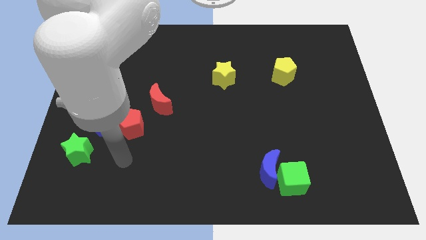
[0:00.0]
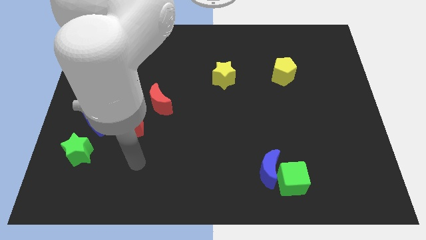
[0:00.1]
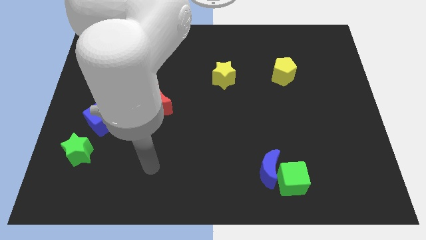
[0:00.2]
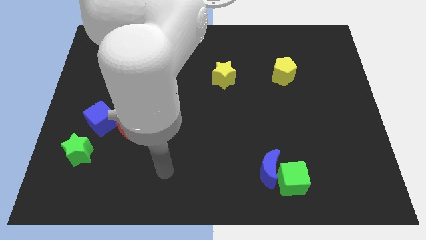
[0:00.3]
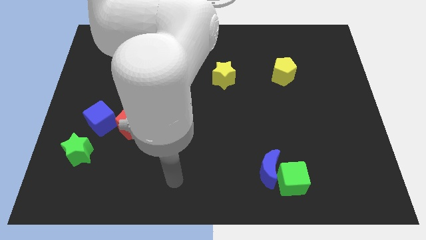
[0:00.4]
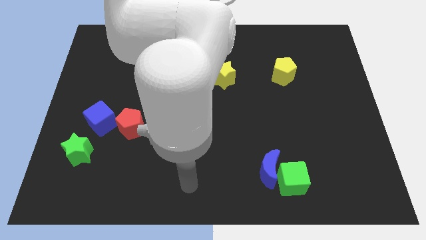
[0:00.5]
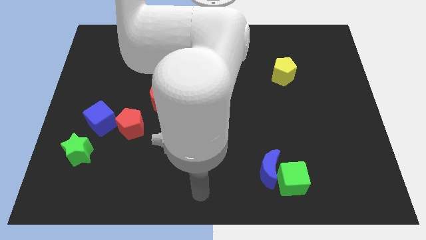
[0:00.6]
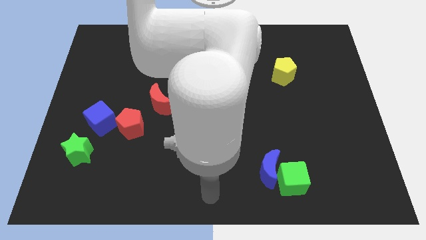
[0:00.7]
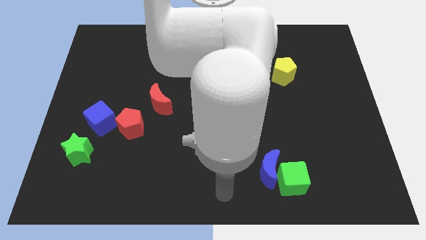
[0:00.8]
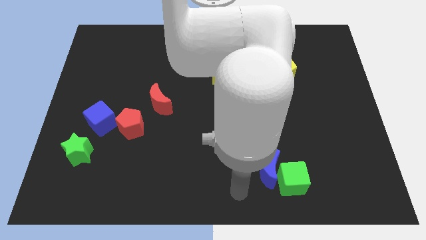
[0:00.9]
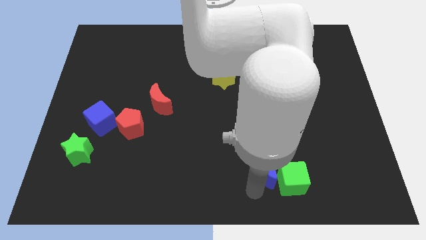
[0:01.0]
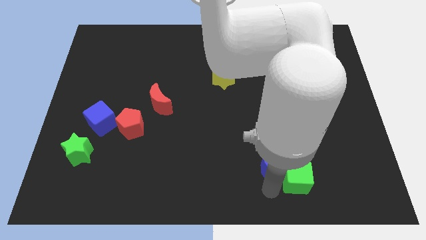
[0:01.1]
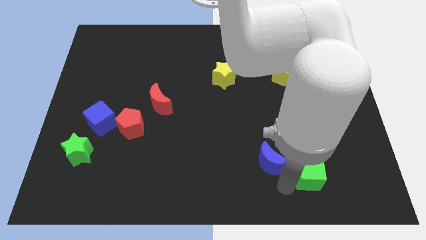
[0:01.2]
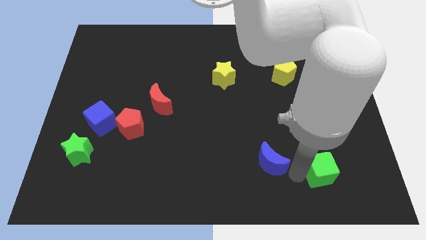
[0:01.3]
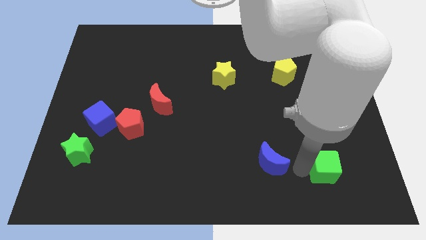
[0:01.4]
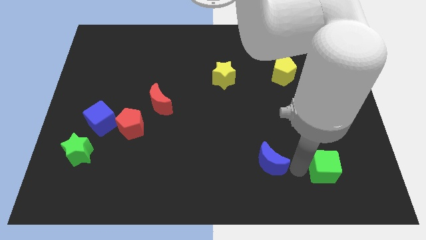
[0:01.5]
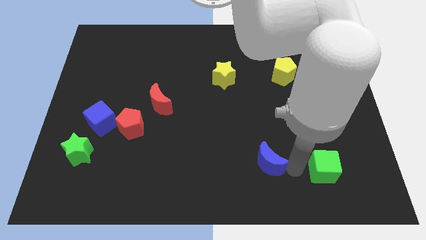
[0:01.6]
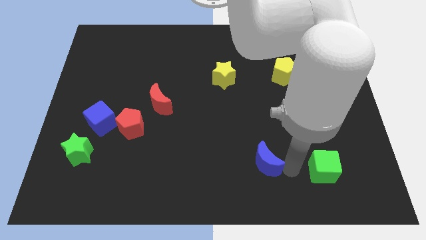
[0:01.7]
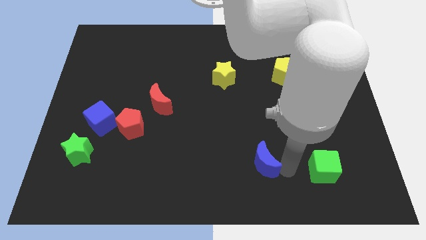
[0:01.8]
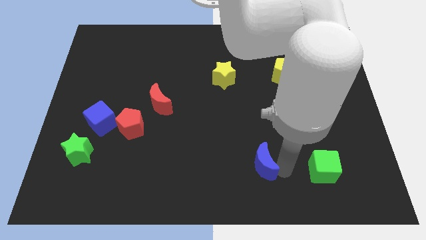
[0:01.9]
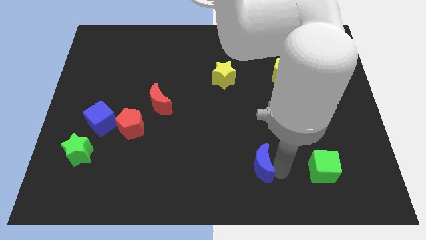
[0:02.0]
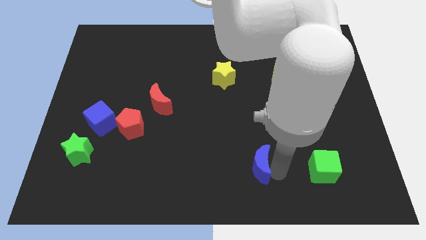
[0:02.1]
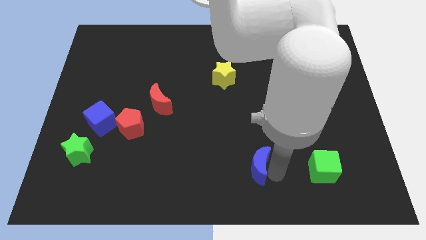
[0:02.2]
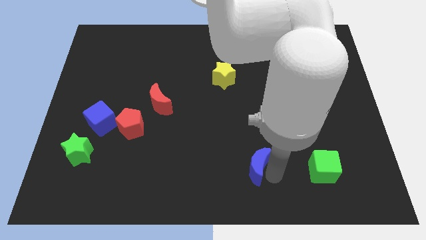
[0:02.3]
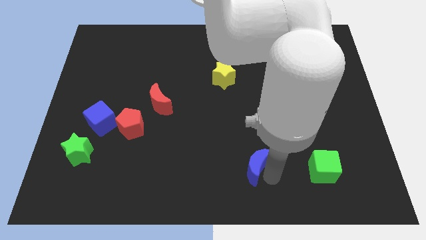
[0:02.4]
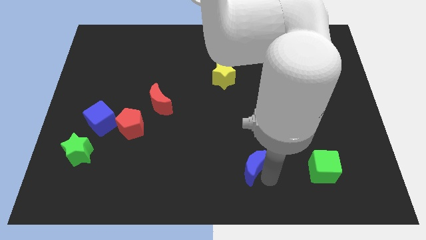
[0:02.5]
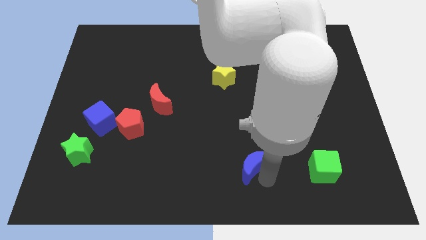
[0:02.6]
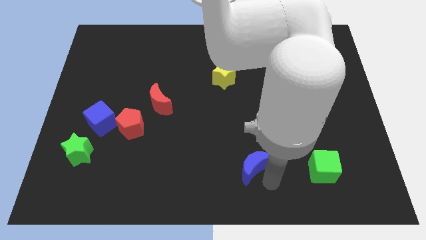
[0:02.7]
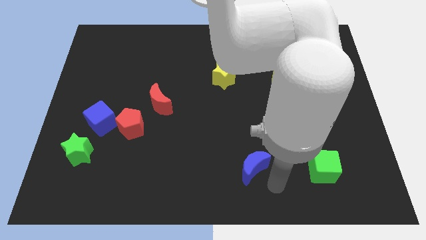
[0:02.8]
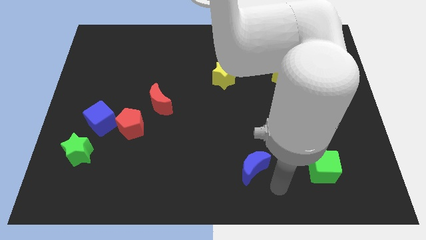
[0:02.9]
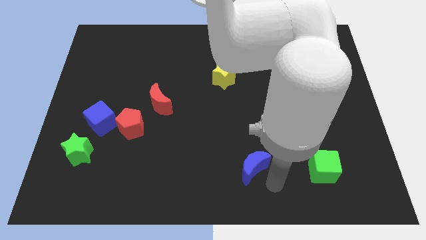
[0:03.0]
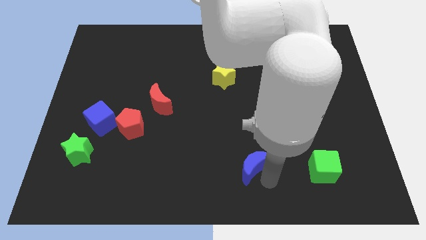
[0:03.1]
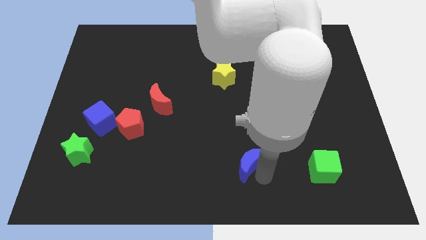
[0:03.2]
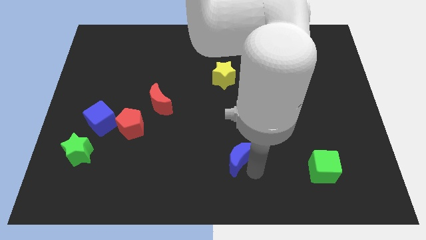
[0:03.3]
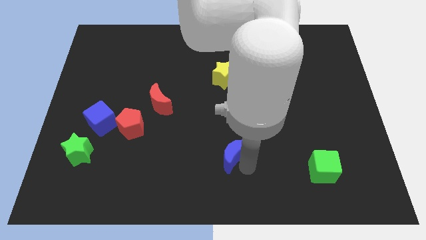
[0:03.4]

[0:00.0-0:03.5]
move the blue moon somewhat up and left

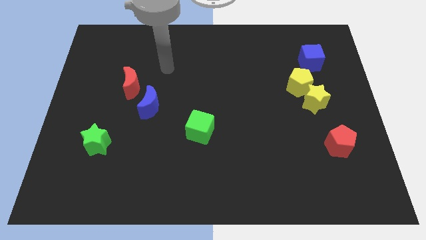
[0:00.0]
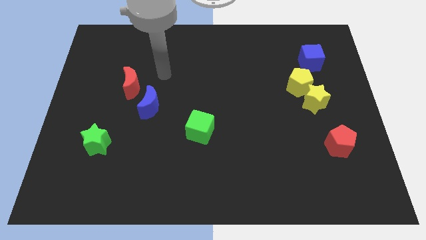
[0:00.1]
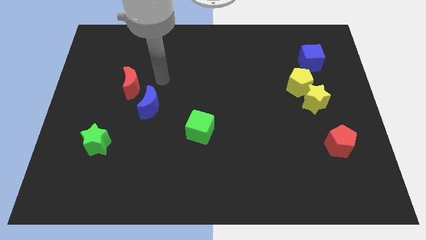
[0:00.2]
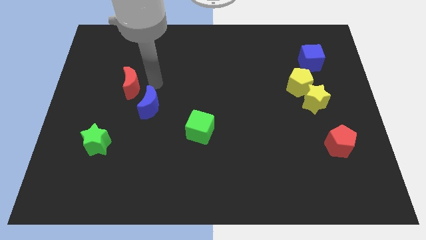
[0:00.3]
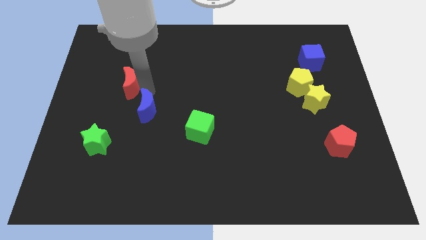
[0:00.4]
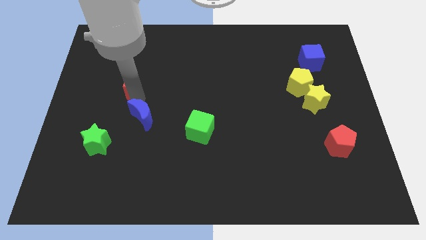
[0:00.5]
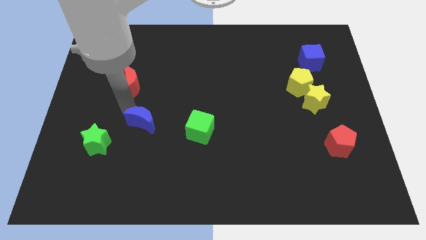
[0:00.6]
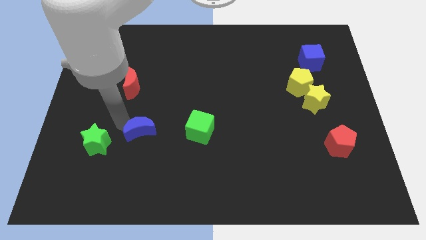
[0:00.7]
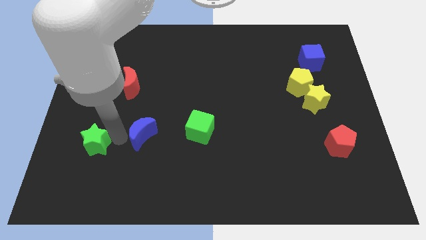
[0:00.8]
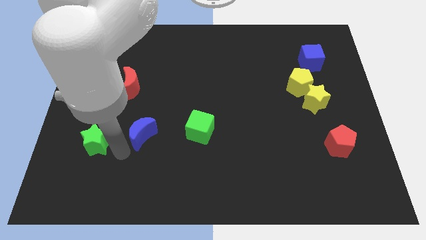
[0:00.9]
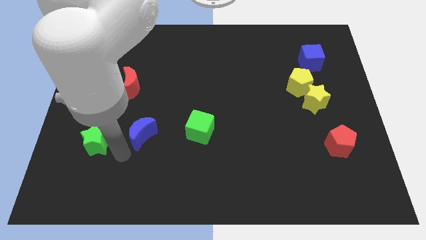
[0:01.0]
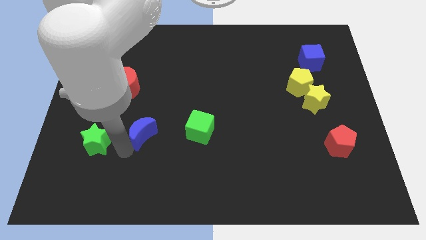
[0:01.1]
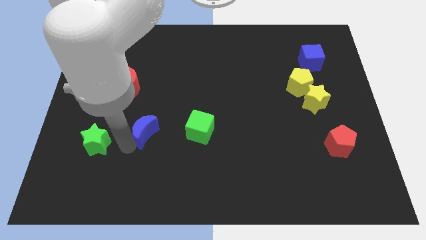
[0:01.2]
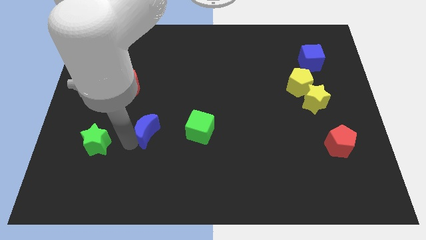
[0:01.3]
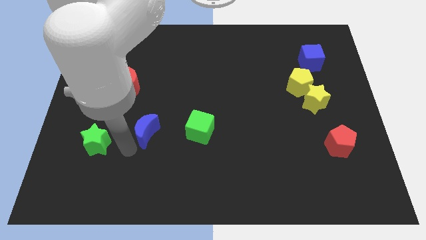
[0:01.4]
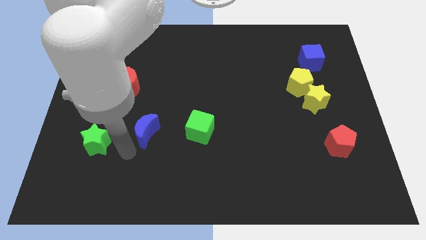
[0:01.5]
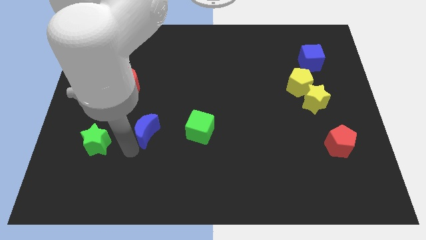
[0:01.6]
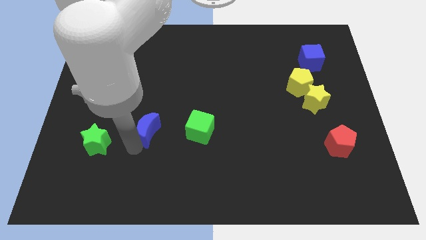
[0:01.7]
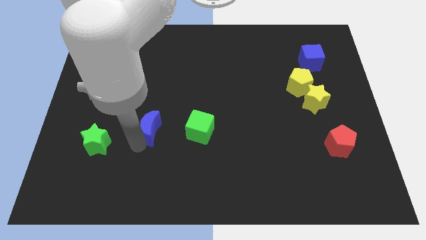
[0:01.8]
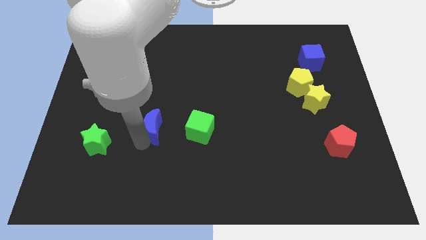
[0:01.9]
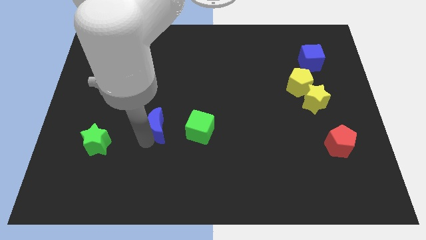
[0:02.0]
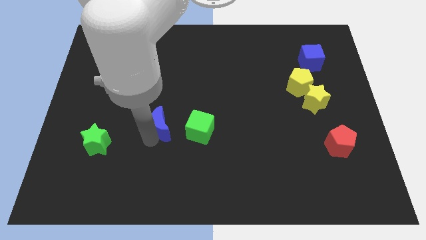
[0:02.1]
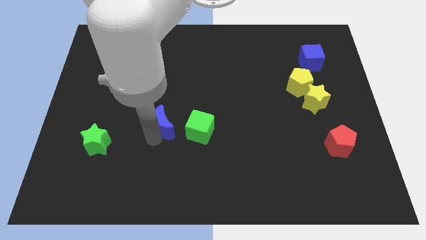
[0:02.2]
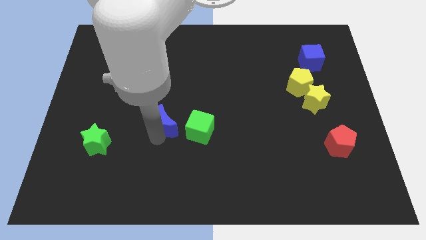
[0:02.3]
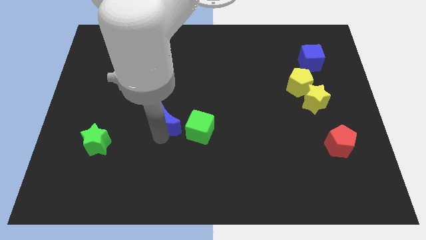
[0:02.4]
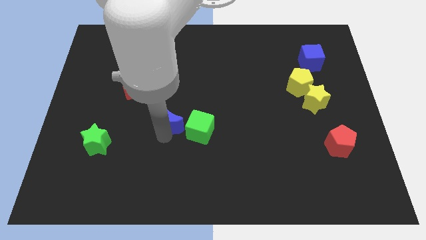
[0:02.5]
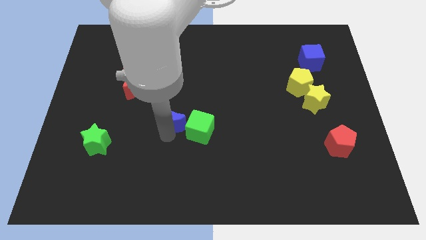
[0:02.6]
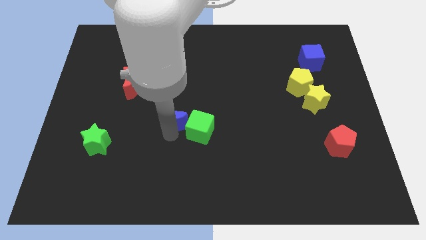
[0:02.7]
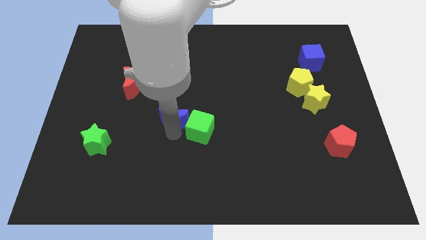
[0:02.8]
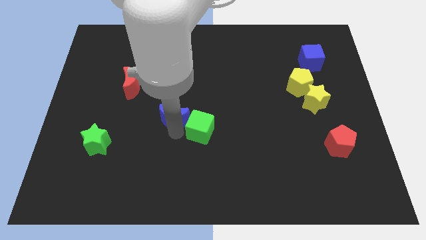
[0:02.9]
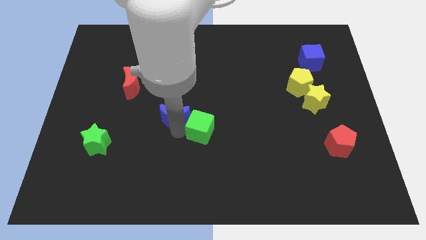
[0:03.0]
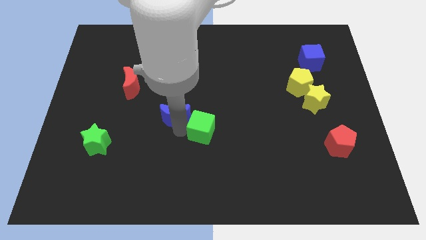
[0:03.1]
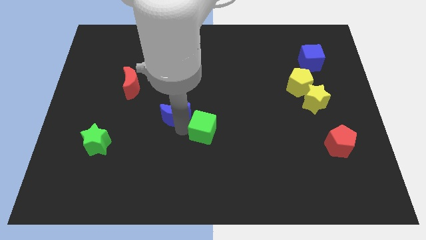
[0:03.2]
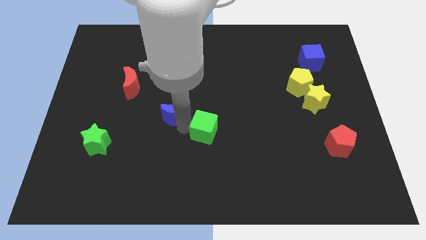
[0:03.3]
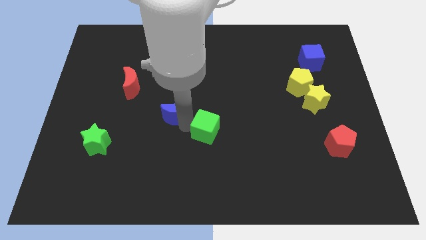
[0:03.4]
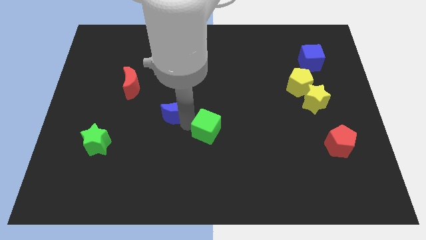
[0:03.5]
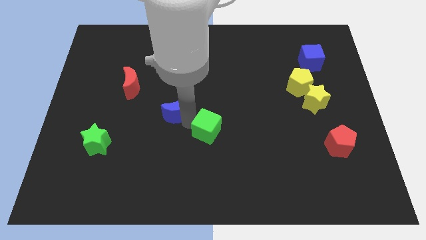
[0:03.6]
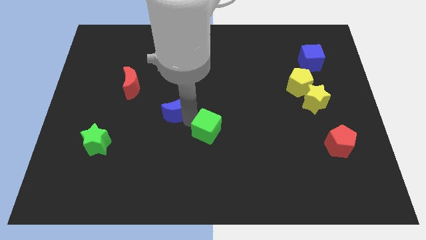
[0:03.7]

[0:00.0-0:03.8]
slightly push the blue moon right

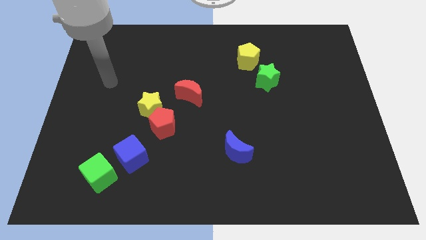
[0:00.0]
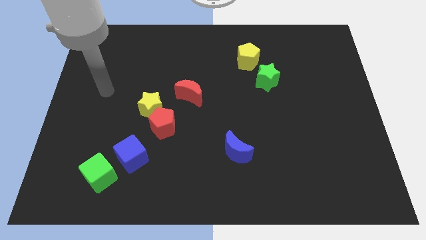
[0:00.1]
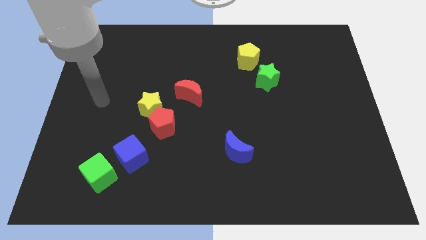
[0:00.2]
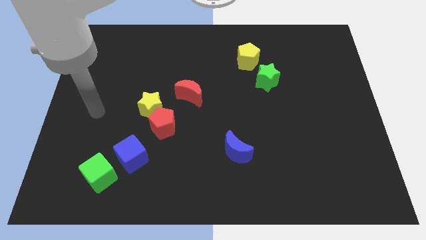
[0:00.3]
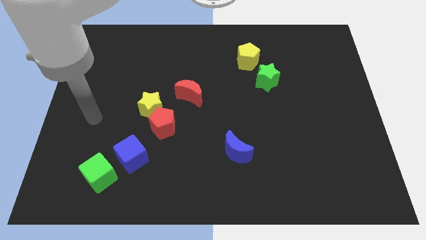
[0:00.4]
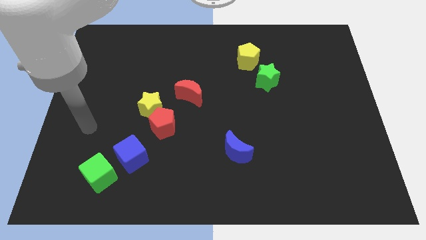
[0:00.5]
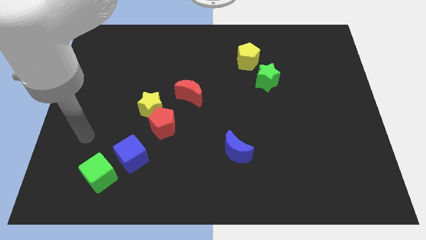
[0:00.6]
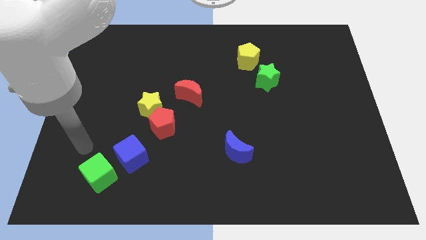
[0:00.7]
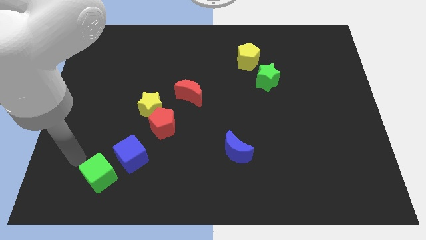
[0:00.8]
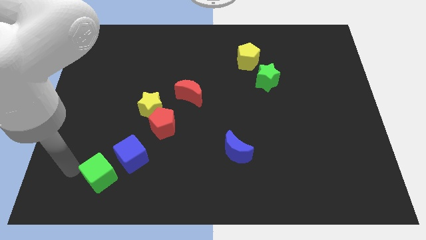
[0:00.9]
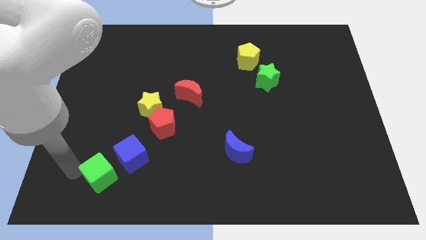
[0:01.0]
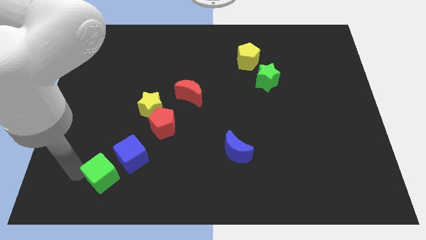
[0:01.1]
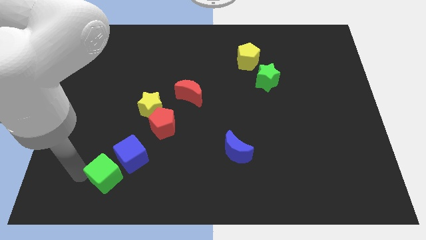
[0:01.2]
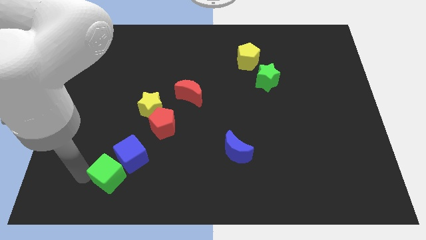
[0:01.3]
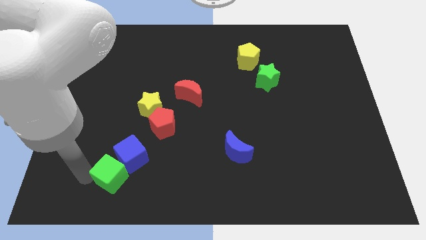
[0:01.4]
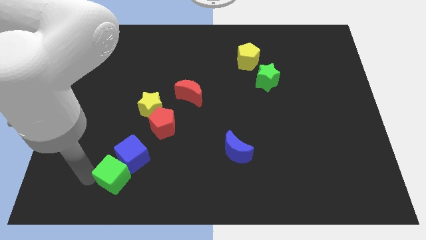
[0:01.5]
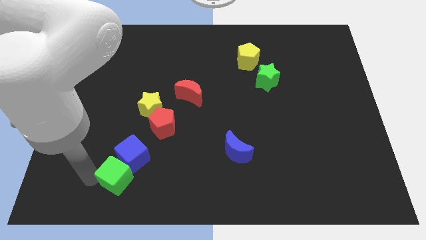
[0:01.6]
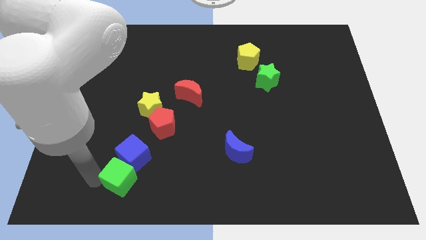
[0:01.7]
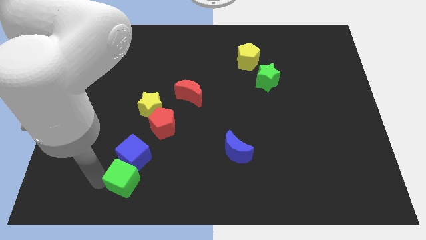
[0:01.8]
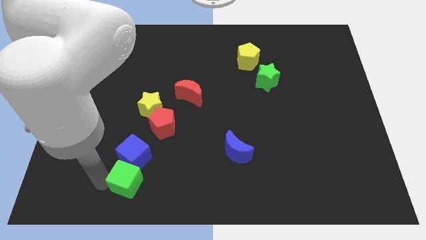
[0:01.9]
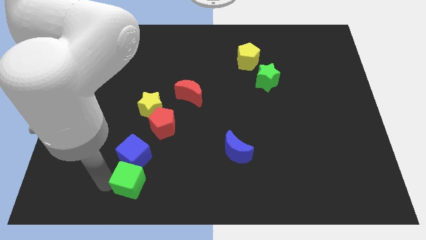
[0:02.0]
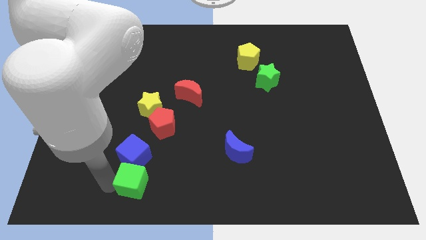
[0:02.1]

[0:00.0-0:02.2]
slightly move the green cube right
